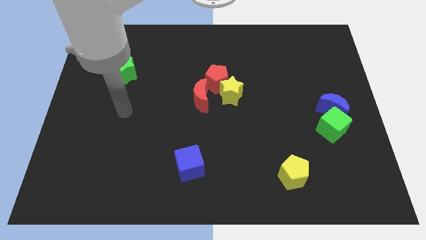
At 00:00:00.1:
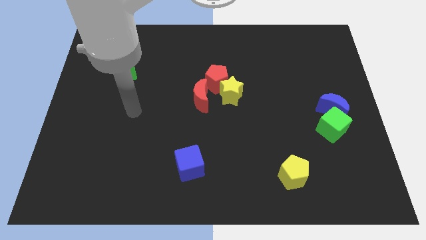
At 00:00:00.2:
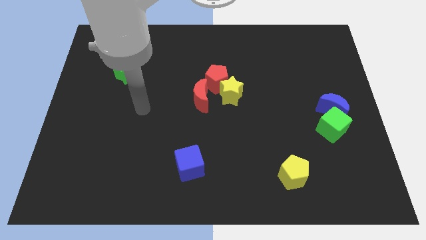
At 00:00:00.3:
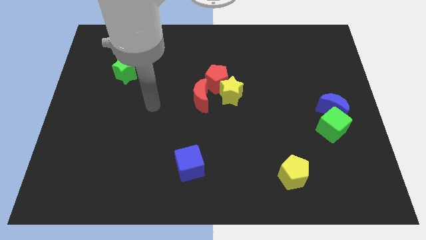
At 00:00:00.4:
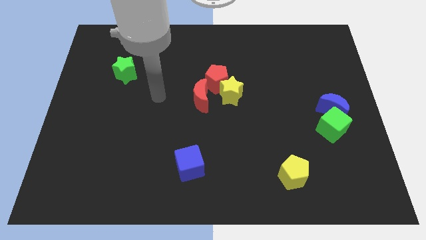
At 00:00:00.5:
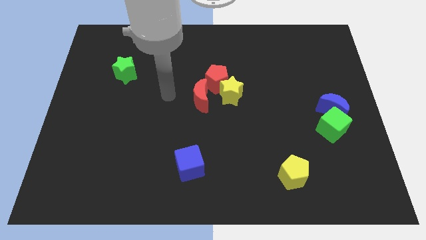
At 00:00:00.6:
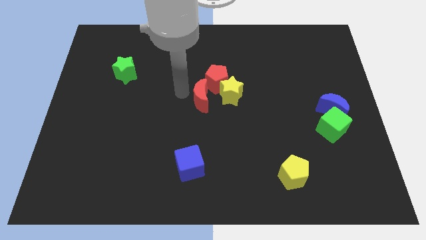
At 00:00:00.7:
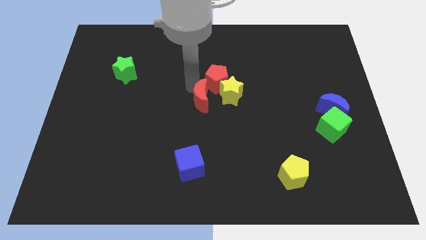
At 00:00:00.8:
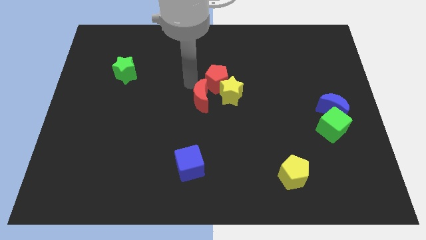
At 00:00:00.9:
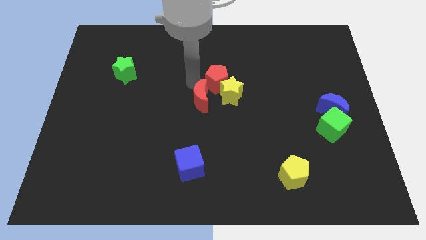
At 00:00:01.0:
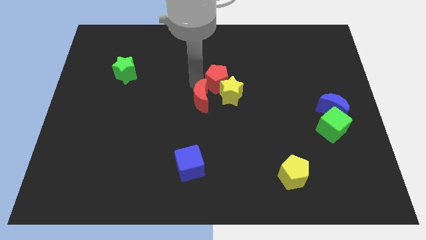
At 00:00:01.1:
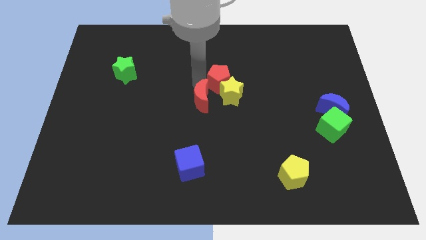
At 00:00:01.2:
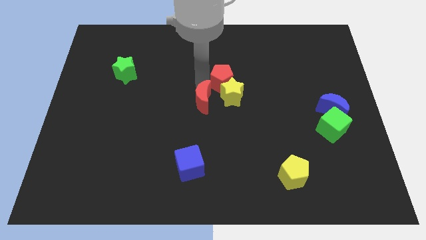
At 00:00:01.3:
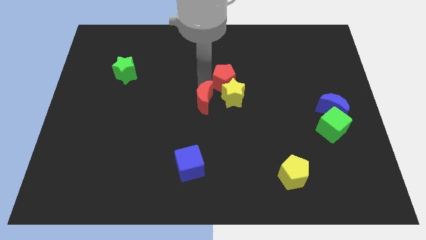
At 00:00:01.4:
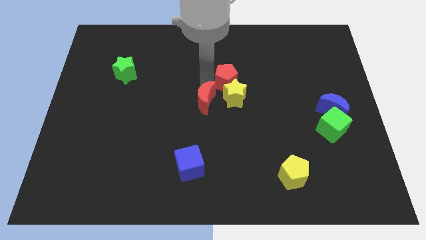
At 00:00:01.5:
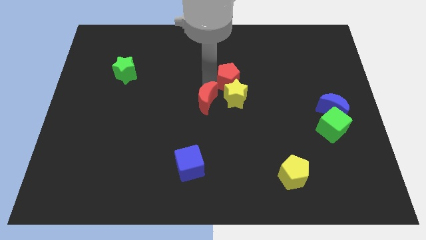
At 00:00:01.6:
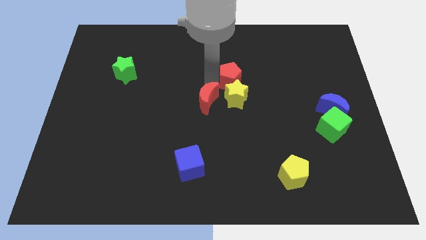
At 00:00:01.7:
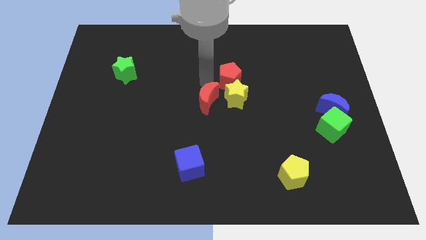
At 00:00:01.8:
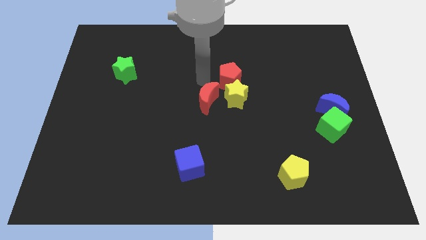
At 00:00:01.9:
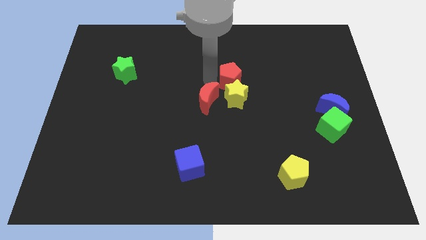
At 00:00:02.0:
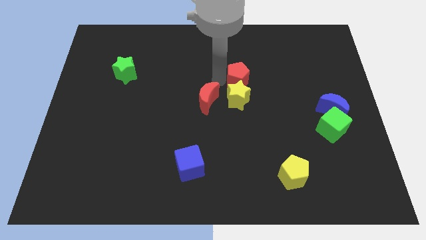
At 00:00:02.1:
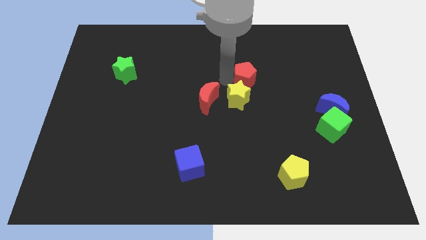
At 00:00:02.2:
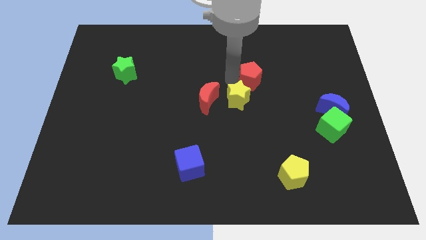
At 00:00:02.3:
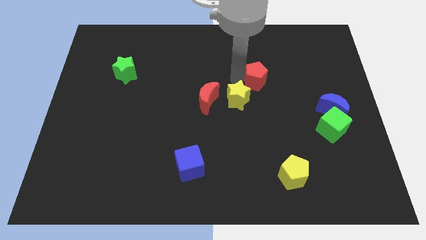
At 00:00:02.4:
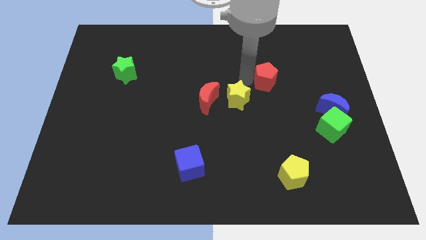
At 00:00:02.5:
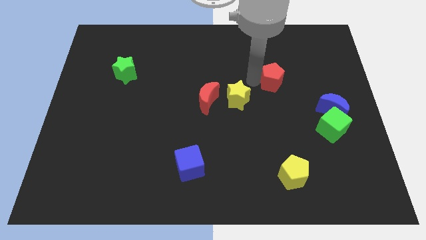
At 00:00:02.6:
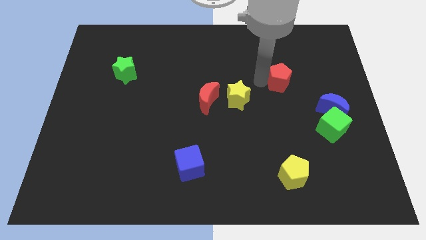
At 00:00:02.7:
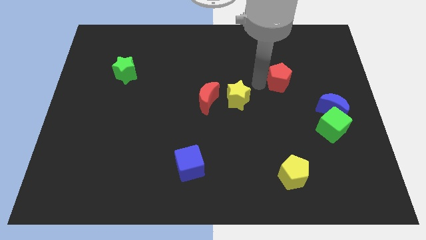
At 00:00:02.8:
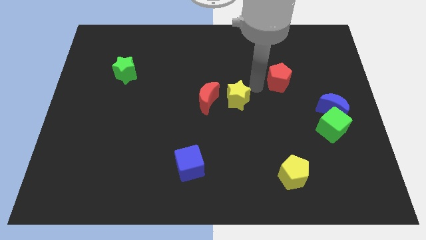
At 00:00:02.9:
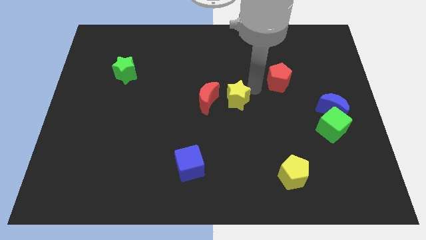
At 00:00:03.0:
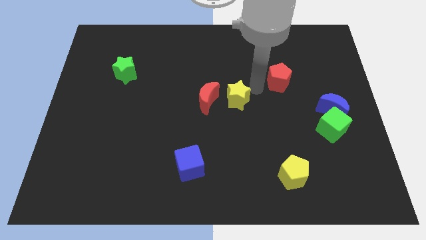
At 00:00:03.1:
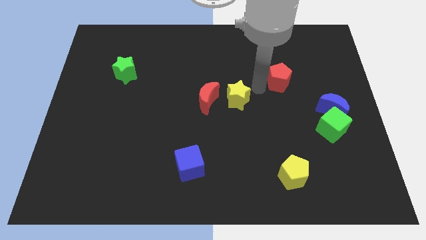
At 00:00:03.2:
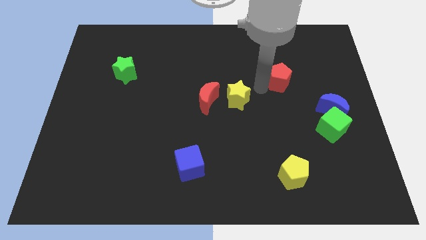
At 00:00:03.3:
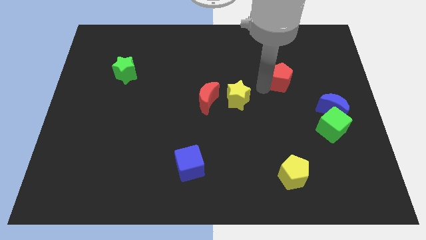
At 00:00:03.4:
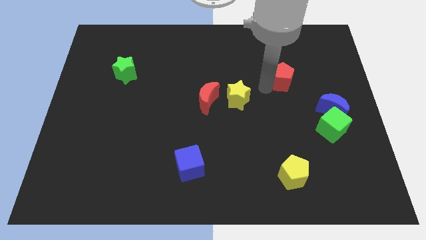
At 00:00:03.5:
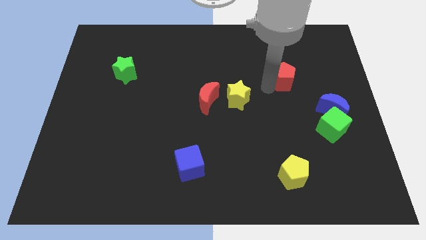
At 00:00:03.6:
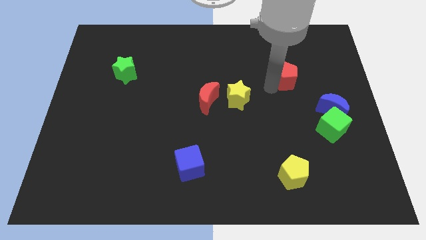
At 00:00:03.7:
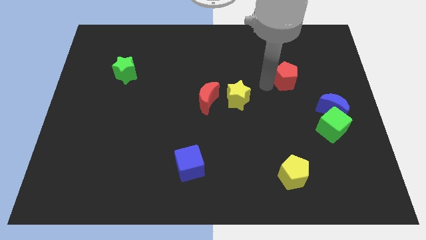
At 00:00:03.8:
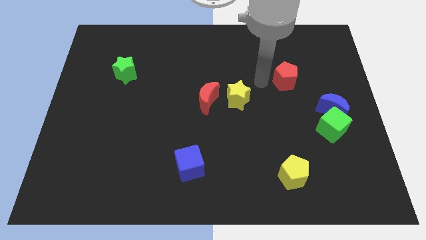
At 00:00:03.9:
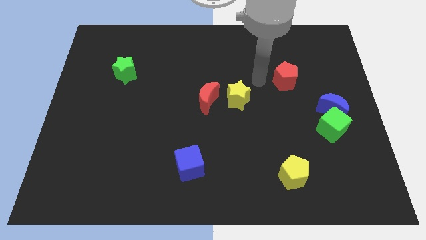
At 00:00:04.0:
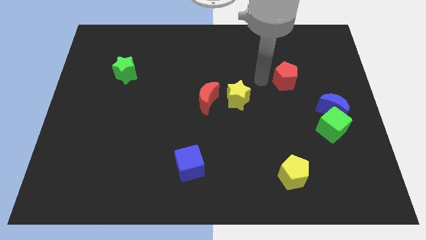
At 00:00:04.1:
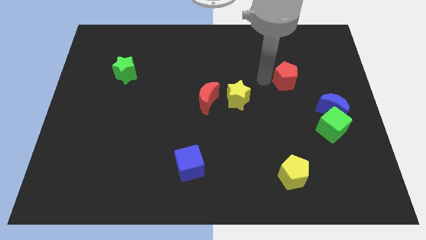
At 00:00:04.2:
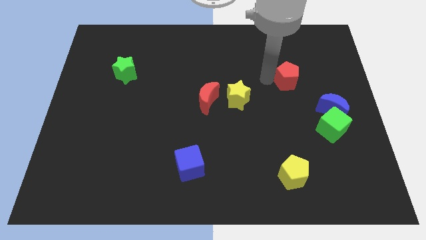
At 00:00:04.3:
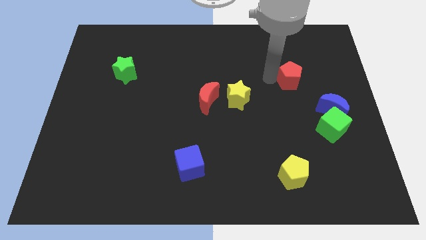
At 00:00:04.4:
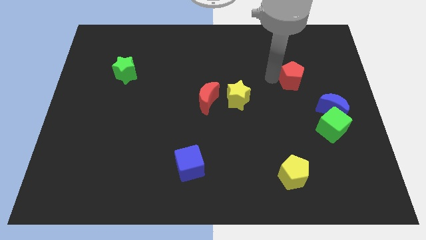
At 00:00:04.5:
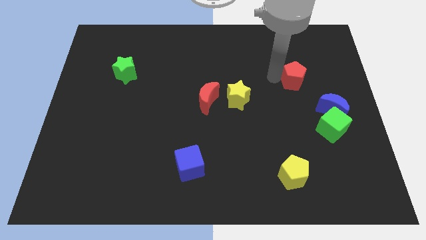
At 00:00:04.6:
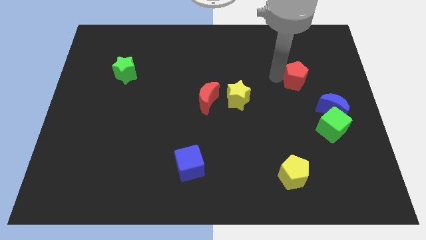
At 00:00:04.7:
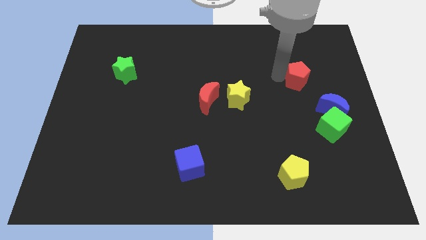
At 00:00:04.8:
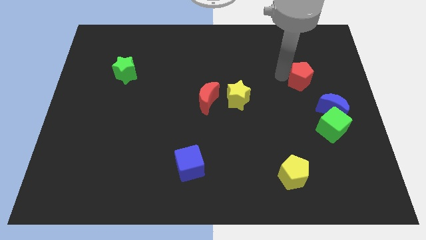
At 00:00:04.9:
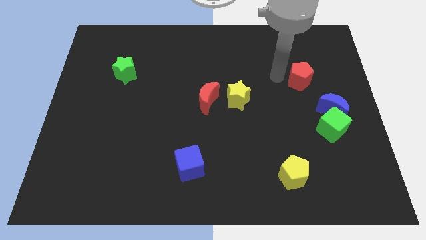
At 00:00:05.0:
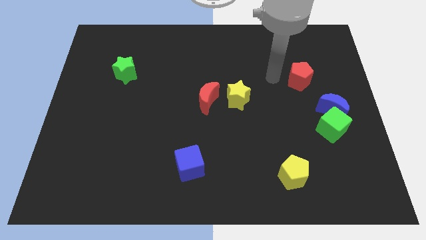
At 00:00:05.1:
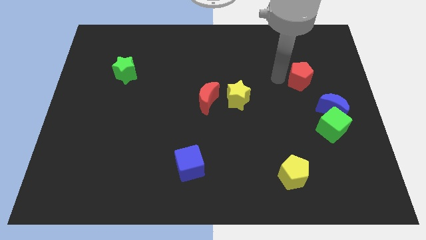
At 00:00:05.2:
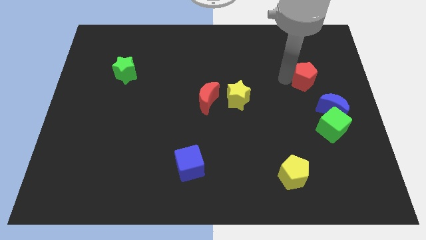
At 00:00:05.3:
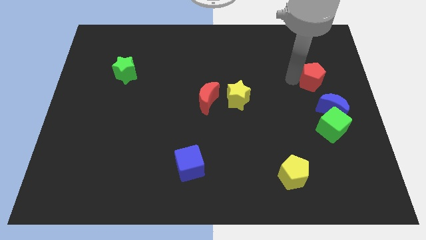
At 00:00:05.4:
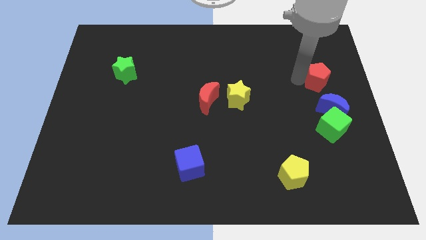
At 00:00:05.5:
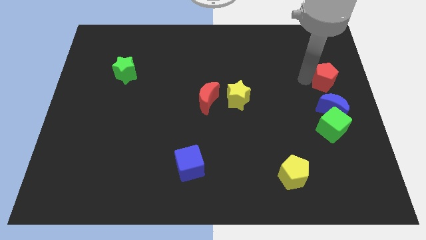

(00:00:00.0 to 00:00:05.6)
move the red pentagon to the right side
